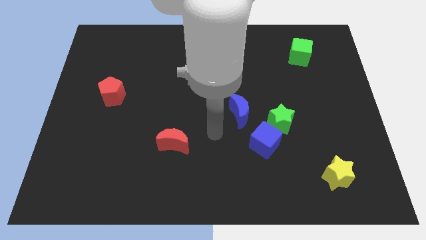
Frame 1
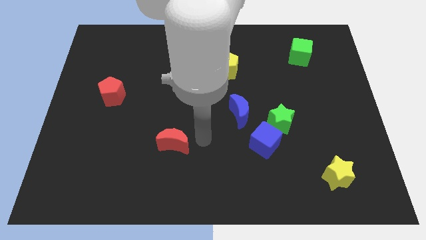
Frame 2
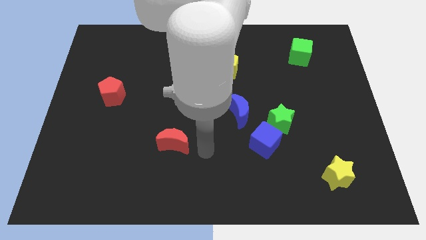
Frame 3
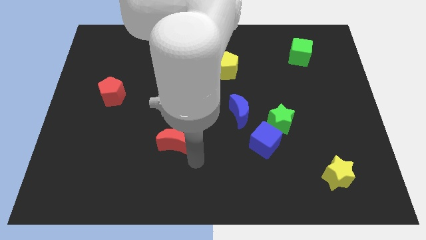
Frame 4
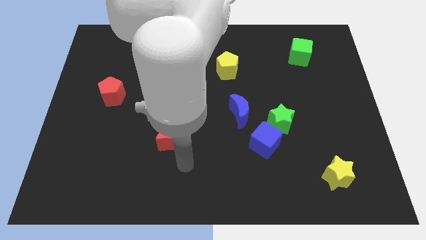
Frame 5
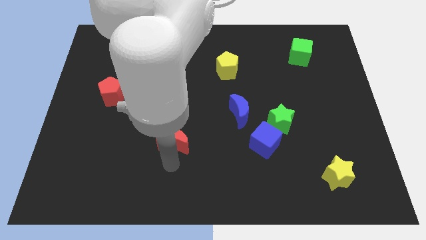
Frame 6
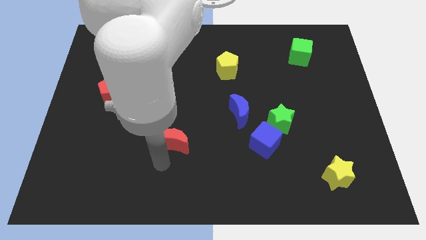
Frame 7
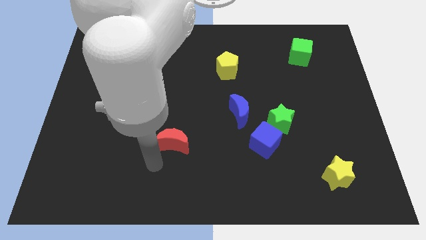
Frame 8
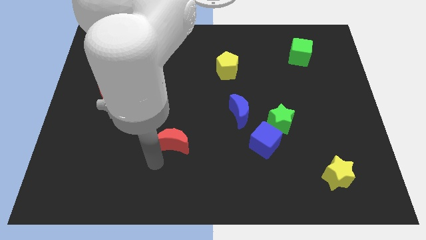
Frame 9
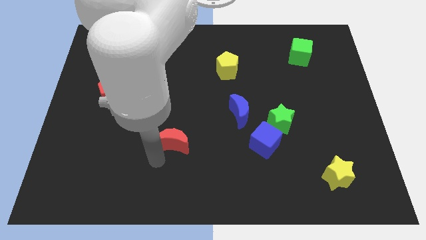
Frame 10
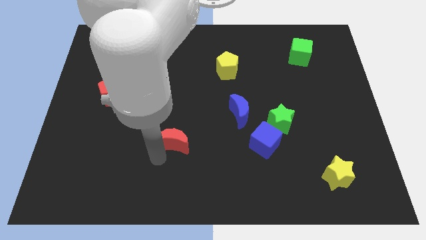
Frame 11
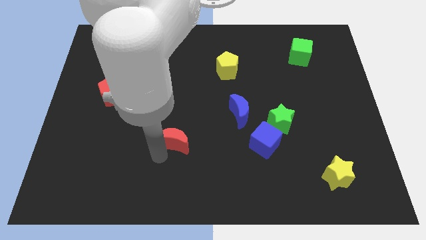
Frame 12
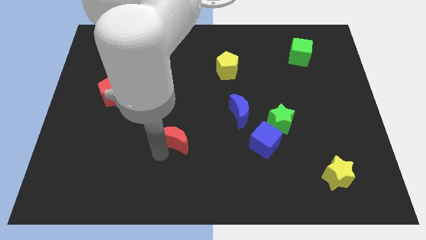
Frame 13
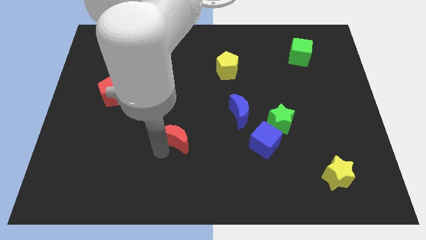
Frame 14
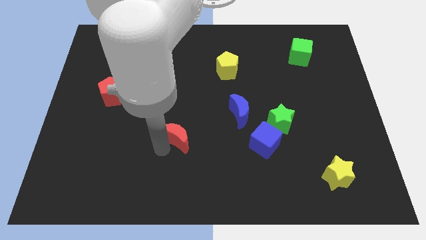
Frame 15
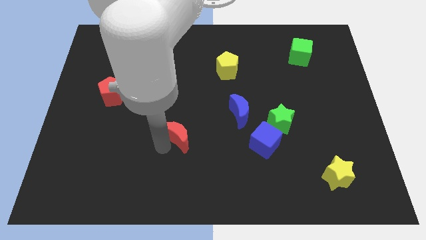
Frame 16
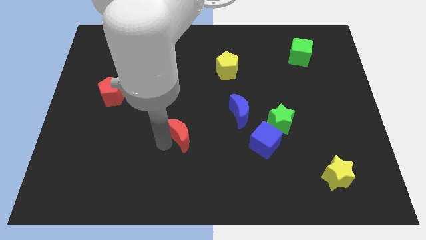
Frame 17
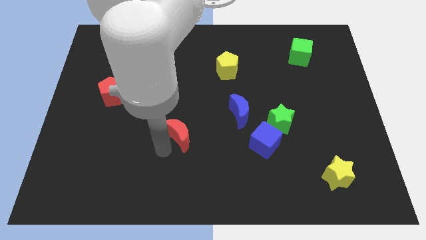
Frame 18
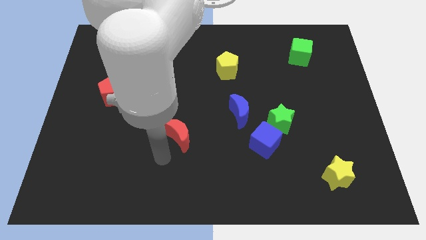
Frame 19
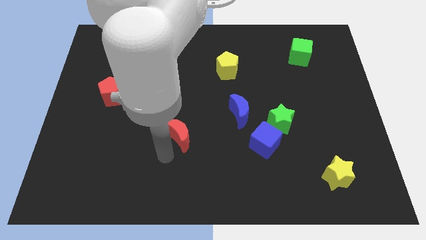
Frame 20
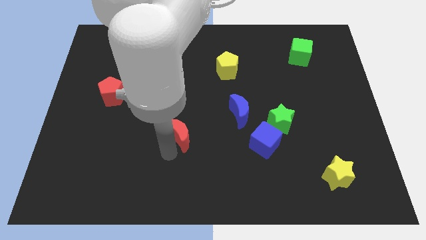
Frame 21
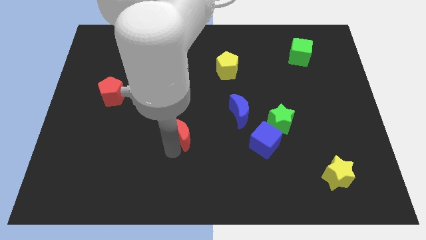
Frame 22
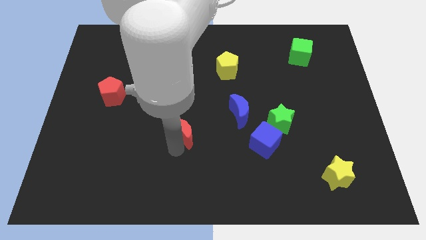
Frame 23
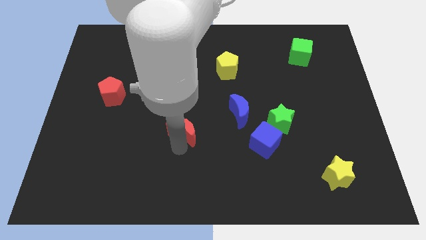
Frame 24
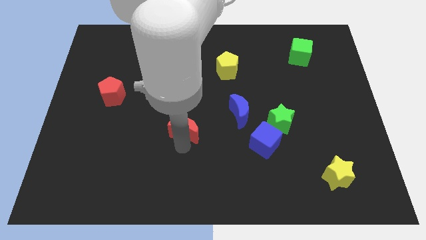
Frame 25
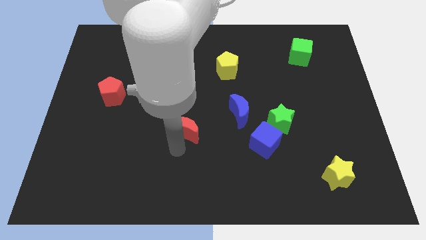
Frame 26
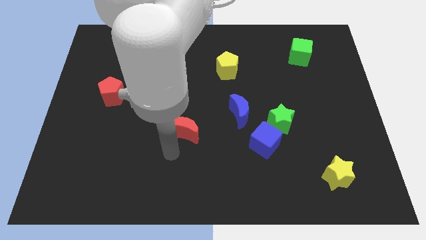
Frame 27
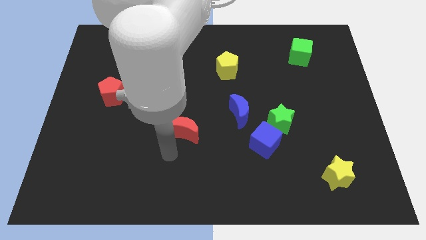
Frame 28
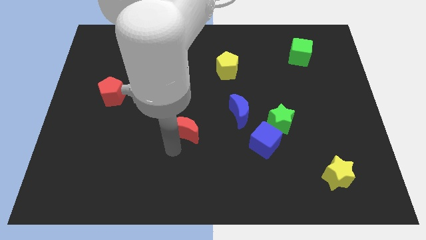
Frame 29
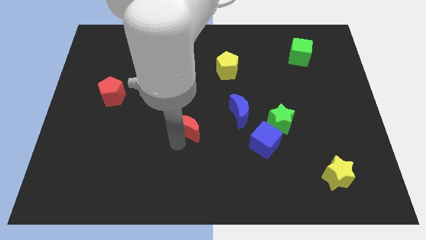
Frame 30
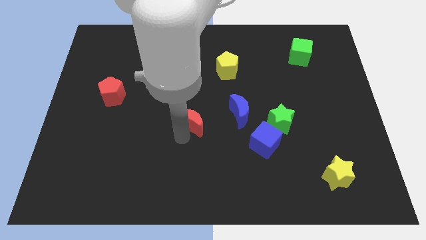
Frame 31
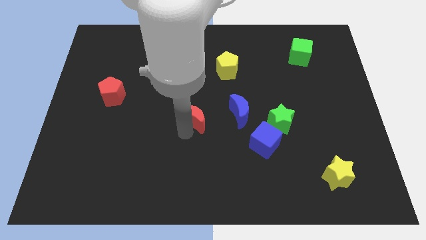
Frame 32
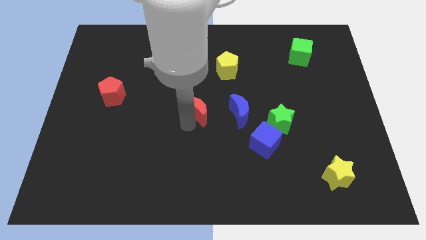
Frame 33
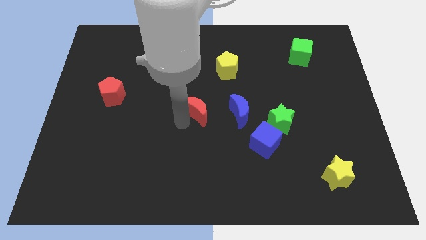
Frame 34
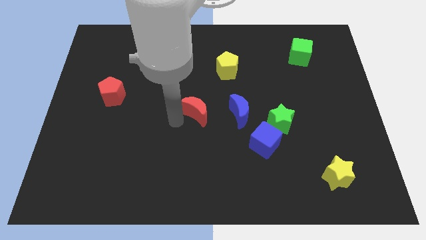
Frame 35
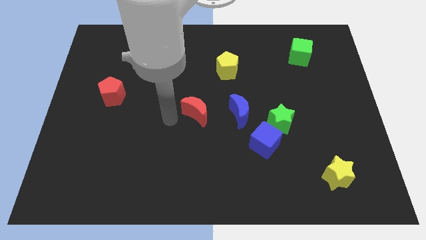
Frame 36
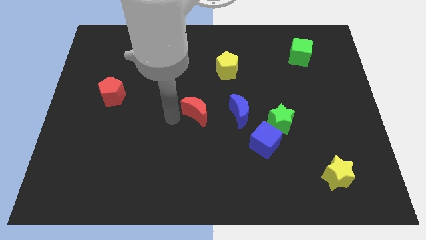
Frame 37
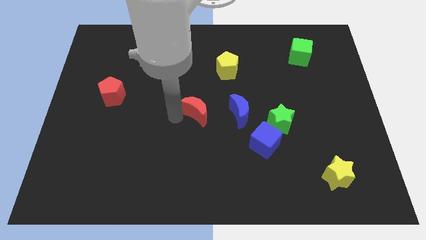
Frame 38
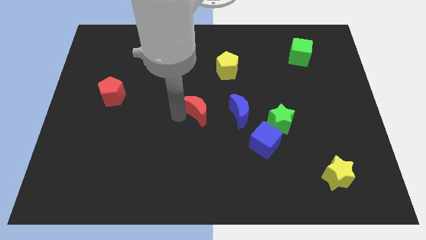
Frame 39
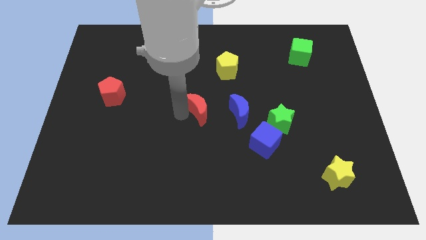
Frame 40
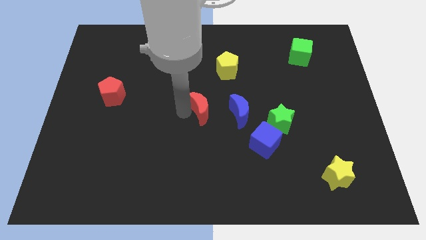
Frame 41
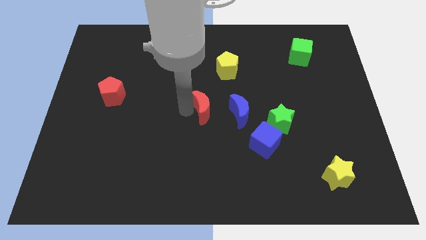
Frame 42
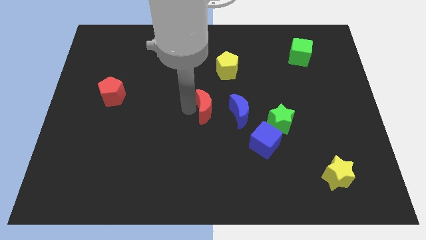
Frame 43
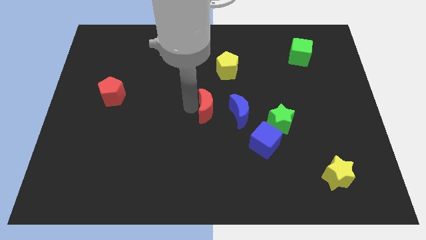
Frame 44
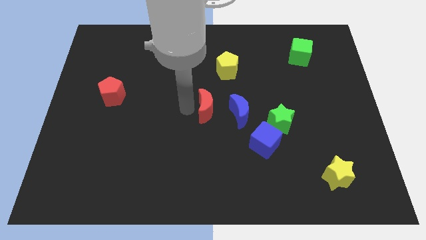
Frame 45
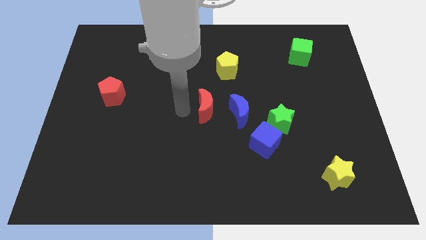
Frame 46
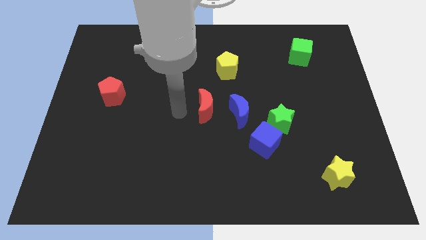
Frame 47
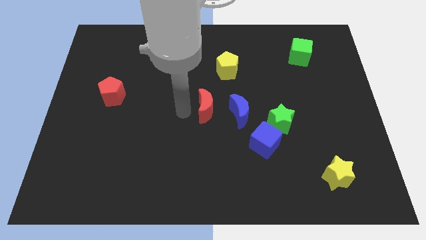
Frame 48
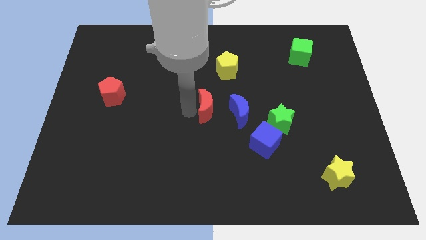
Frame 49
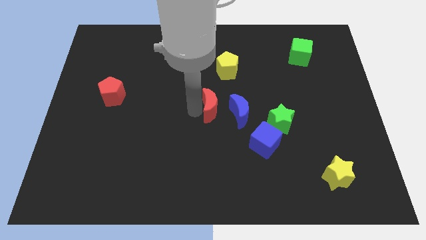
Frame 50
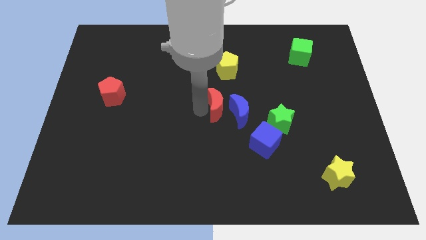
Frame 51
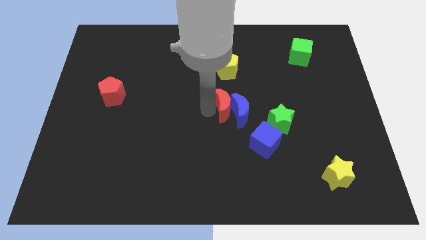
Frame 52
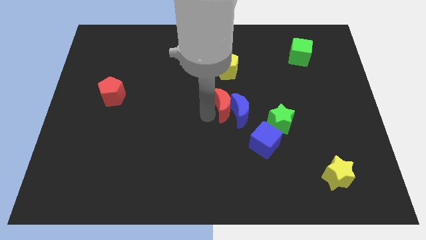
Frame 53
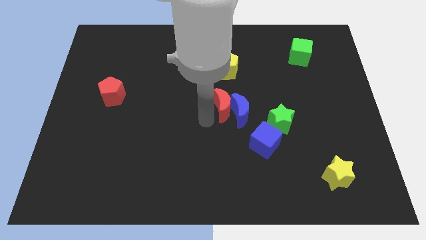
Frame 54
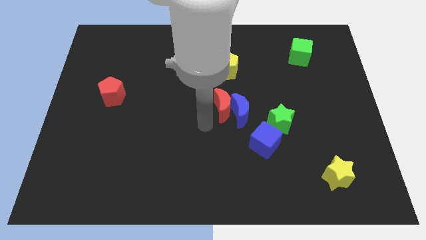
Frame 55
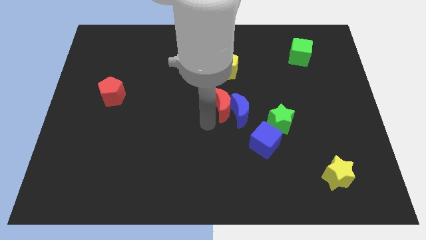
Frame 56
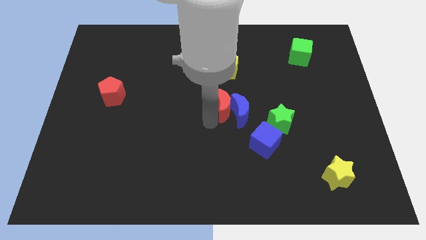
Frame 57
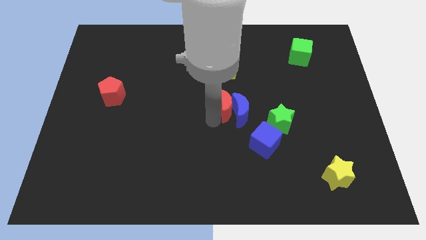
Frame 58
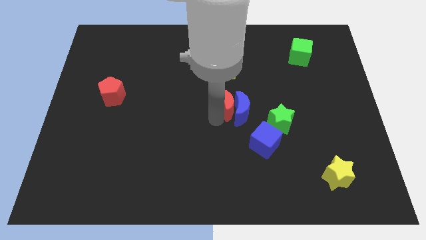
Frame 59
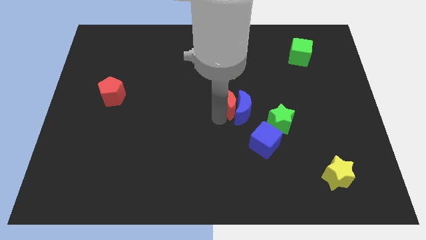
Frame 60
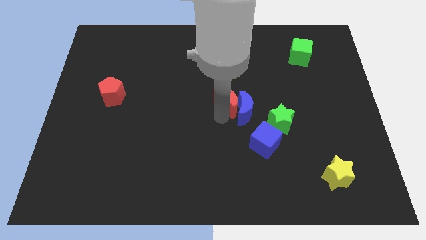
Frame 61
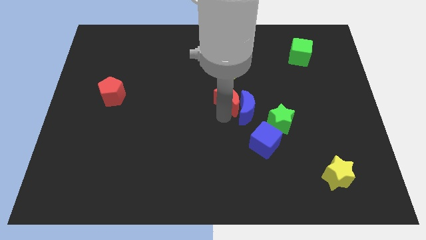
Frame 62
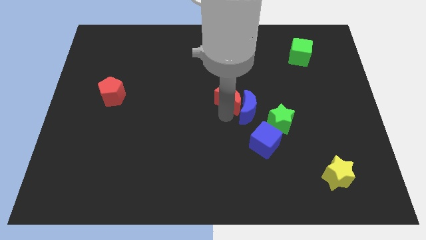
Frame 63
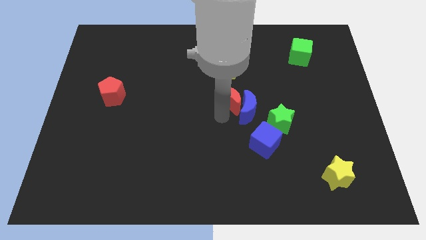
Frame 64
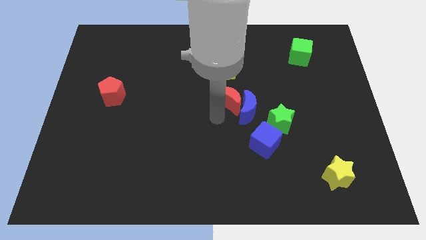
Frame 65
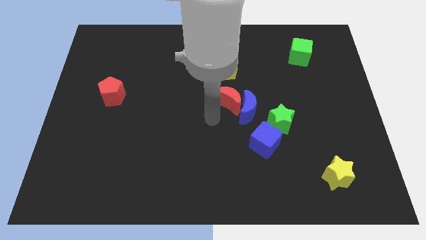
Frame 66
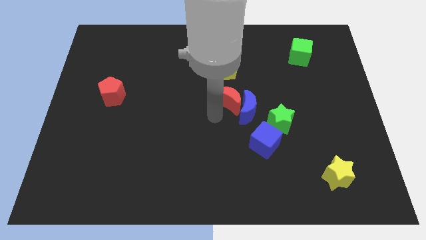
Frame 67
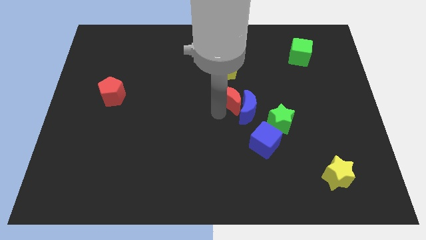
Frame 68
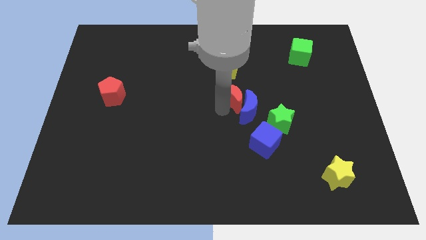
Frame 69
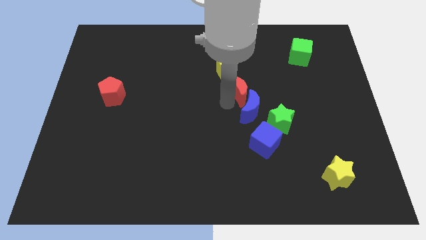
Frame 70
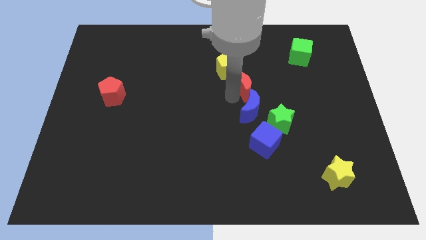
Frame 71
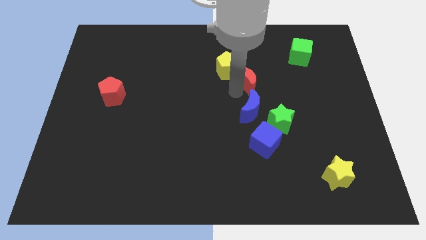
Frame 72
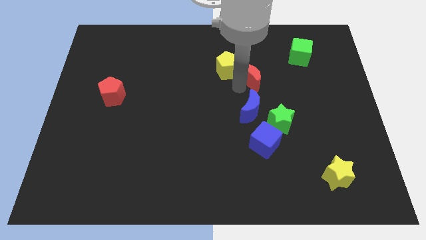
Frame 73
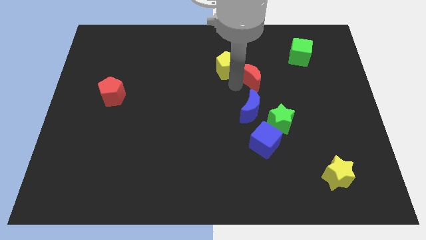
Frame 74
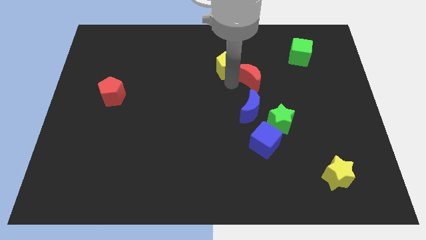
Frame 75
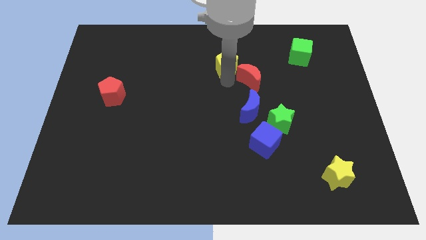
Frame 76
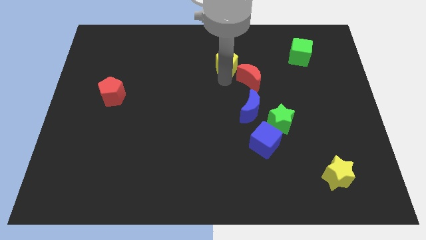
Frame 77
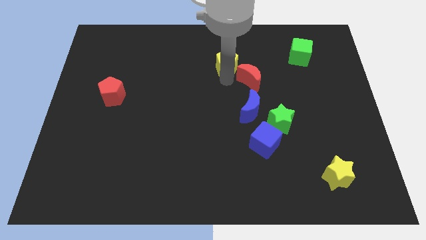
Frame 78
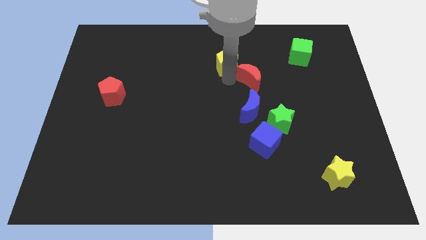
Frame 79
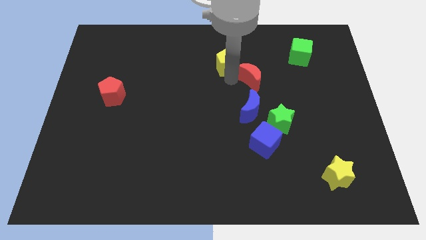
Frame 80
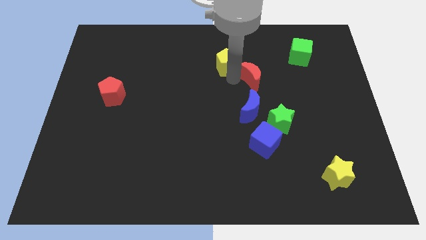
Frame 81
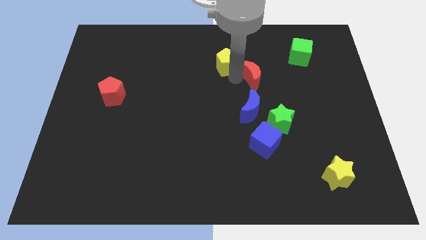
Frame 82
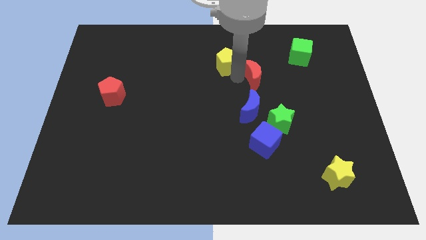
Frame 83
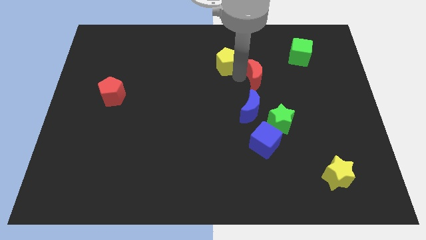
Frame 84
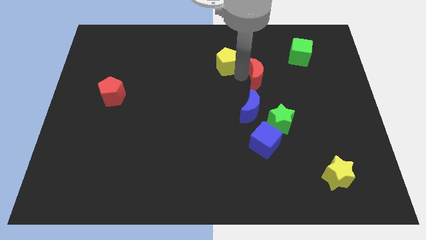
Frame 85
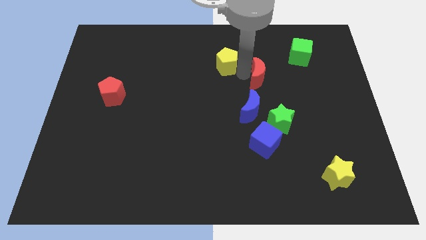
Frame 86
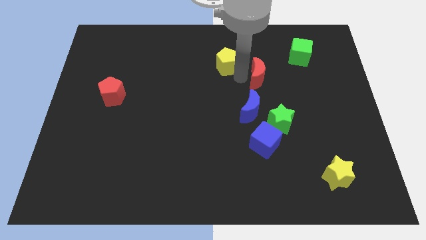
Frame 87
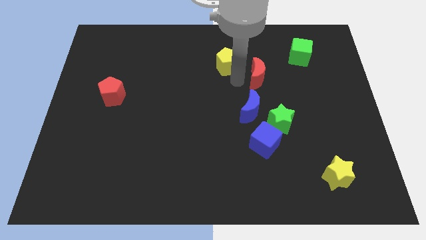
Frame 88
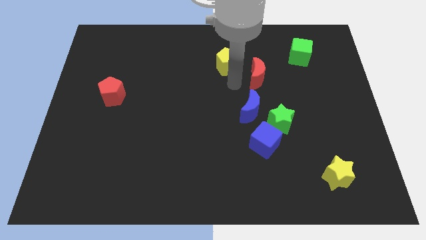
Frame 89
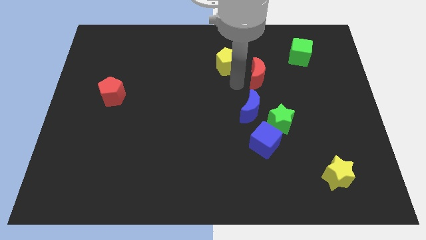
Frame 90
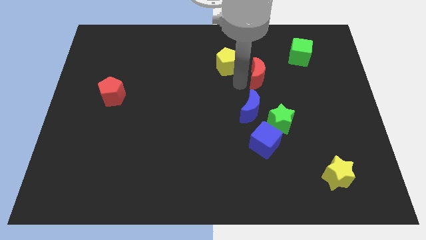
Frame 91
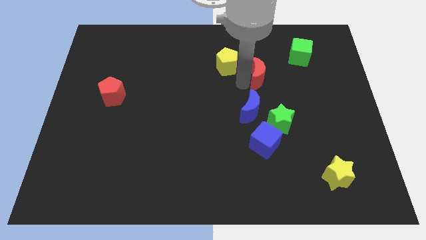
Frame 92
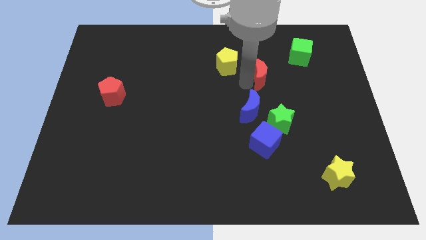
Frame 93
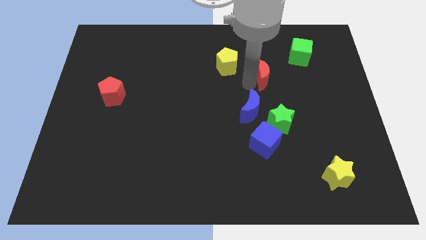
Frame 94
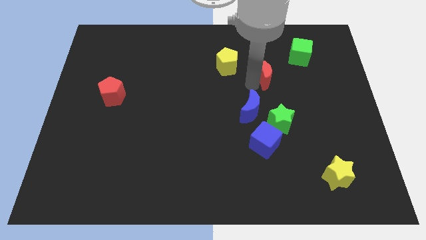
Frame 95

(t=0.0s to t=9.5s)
slide the red moon to the bottom left of the green cube
